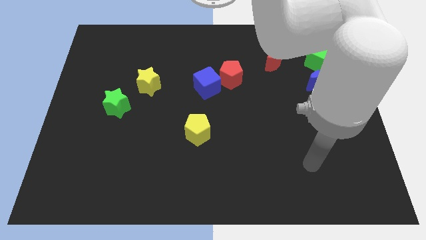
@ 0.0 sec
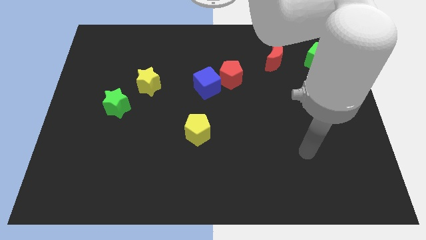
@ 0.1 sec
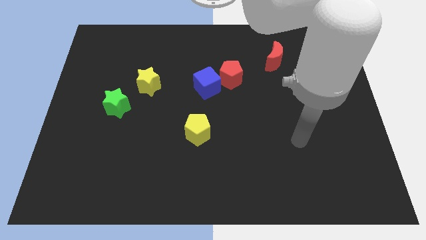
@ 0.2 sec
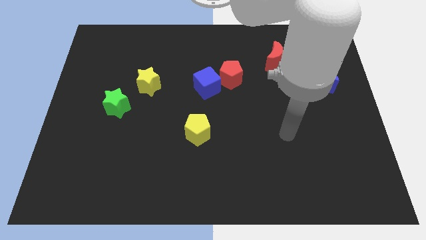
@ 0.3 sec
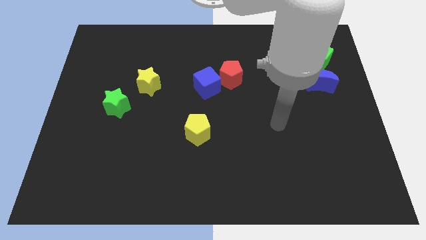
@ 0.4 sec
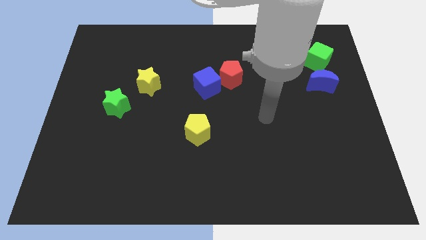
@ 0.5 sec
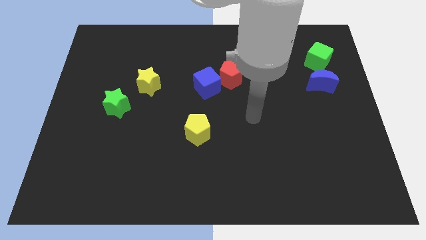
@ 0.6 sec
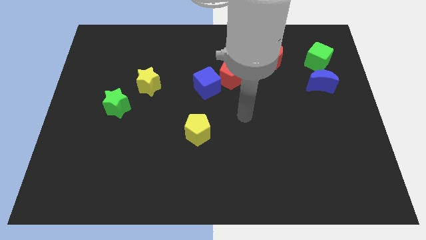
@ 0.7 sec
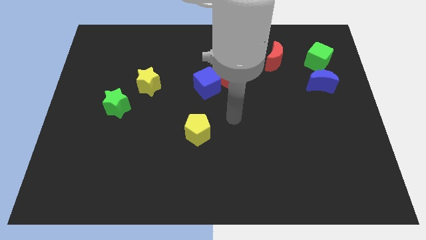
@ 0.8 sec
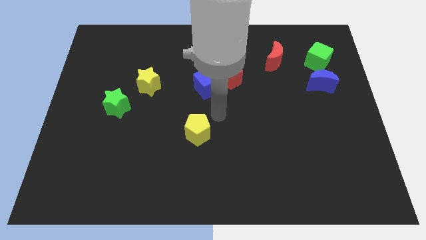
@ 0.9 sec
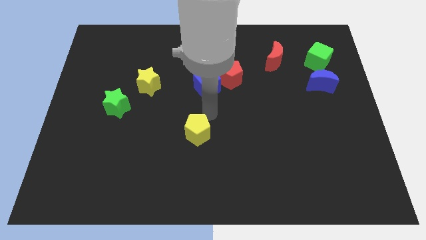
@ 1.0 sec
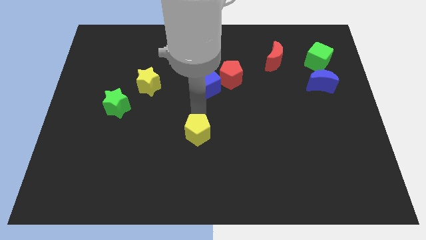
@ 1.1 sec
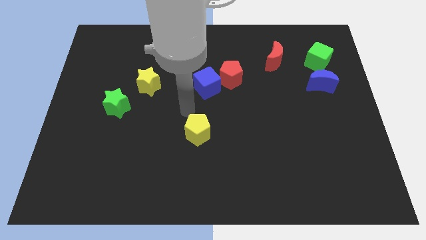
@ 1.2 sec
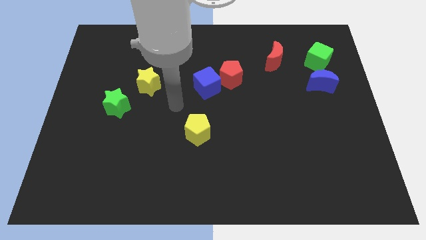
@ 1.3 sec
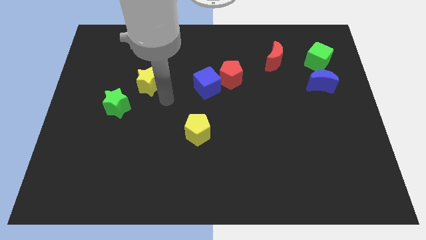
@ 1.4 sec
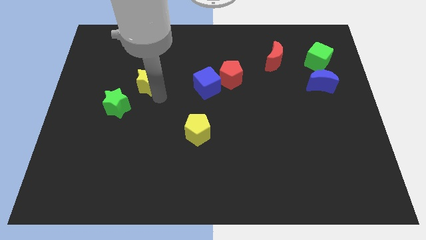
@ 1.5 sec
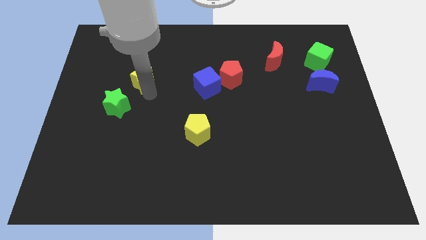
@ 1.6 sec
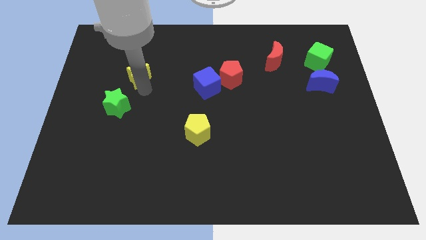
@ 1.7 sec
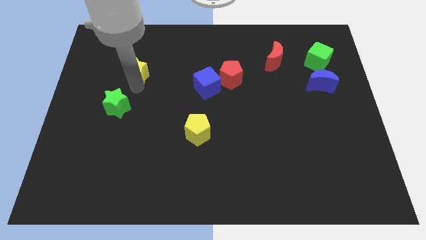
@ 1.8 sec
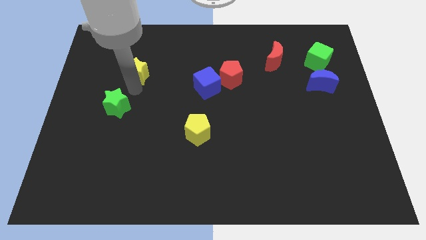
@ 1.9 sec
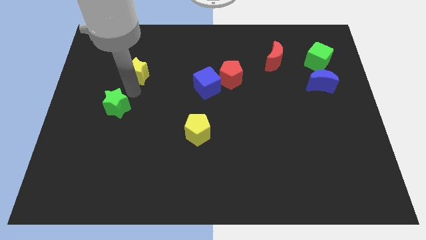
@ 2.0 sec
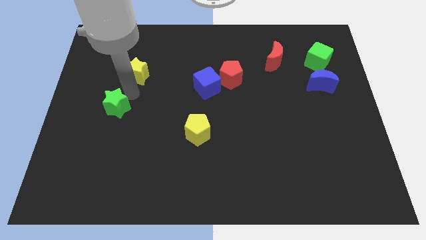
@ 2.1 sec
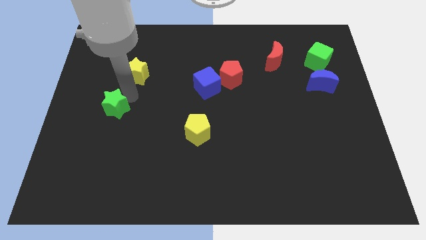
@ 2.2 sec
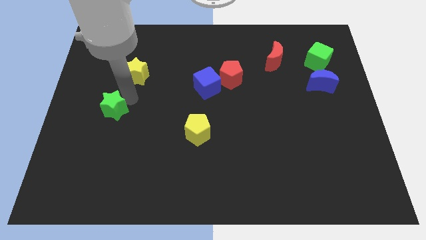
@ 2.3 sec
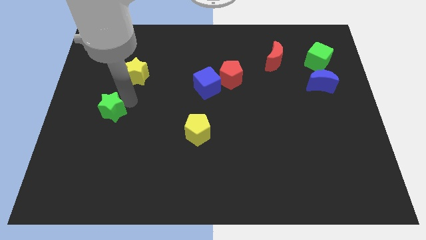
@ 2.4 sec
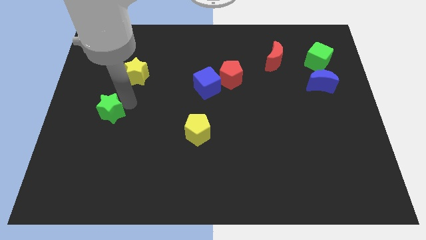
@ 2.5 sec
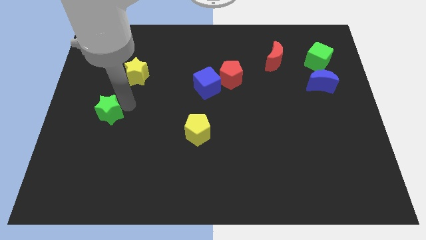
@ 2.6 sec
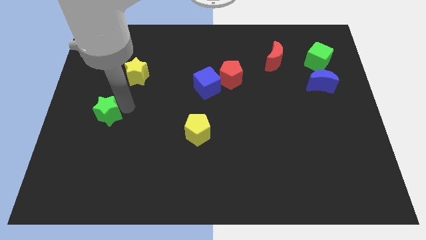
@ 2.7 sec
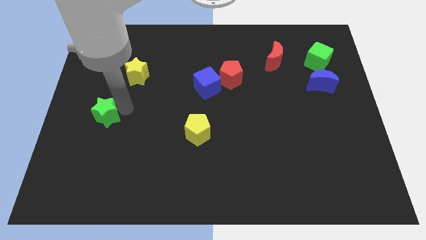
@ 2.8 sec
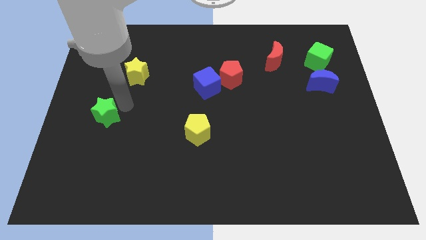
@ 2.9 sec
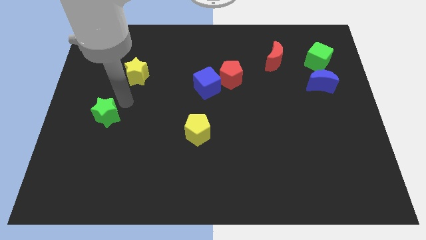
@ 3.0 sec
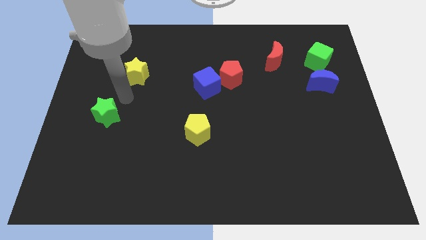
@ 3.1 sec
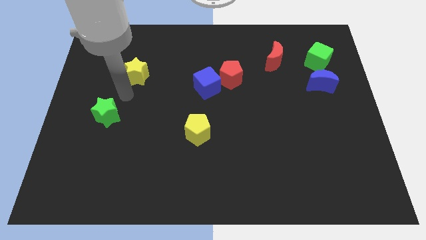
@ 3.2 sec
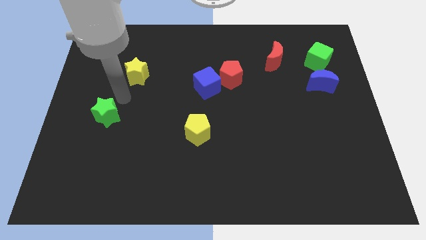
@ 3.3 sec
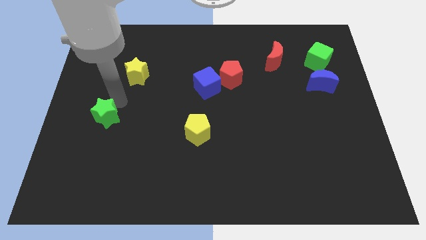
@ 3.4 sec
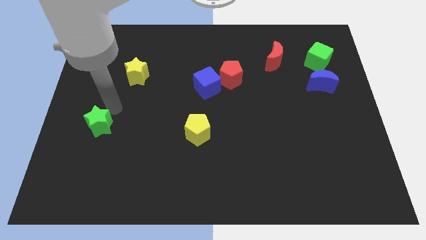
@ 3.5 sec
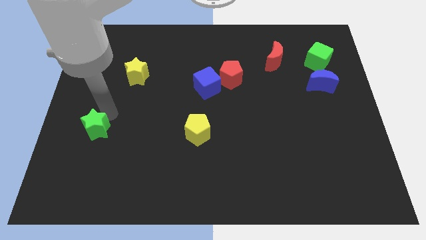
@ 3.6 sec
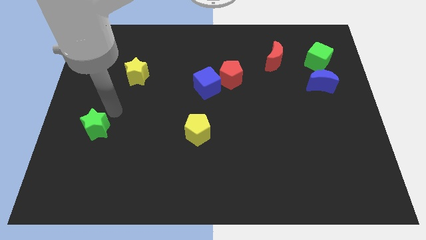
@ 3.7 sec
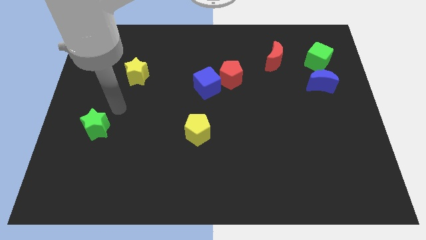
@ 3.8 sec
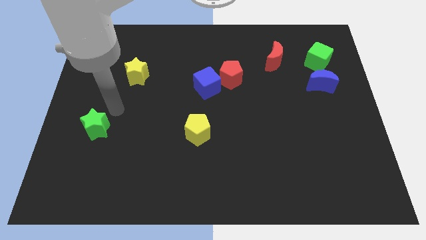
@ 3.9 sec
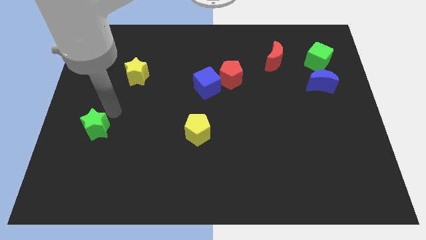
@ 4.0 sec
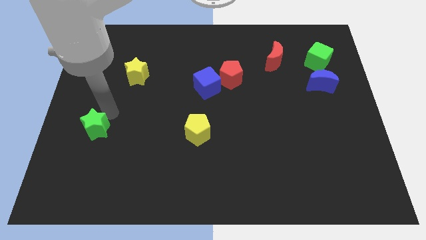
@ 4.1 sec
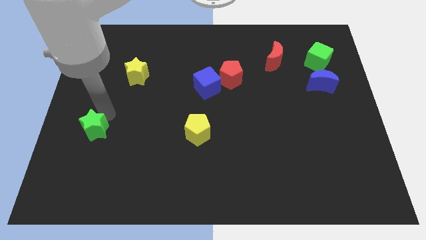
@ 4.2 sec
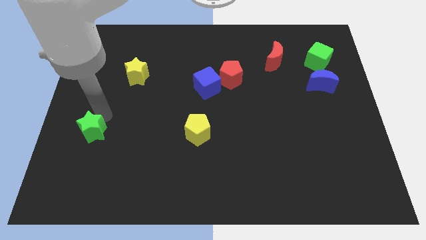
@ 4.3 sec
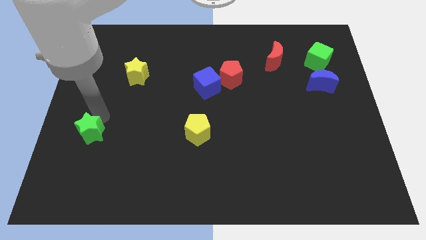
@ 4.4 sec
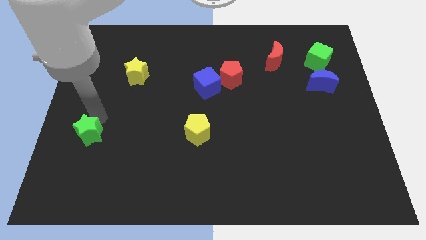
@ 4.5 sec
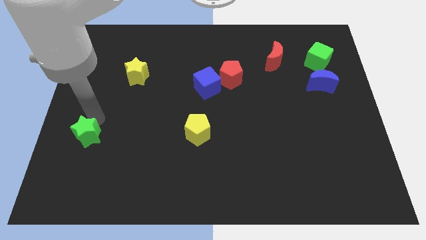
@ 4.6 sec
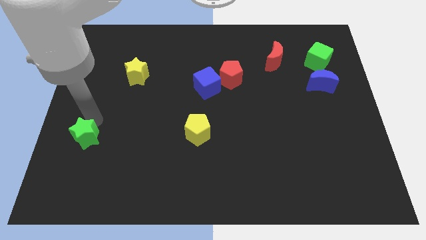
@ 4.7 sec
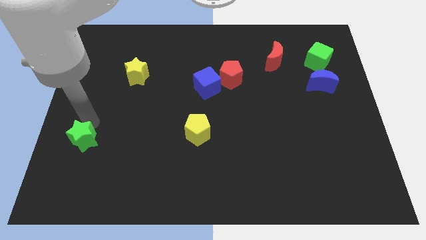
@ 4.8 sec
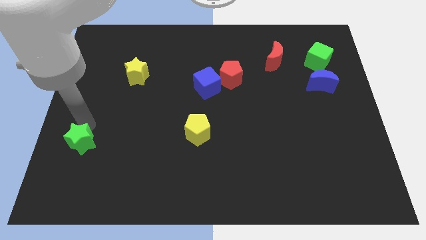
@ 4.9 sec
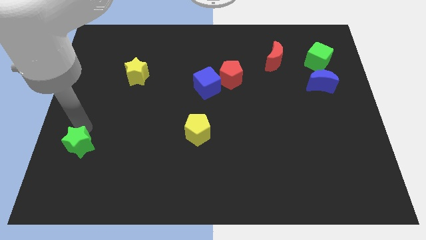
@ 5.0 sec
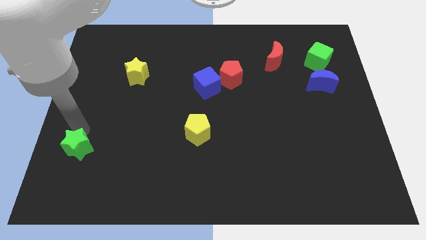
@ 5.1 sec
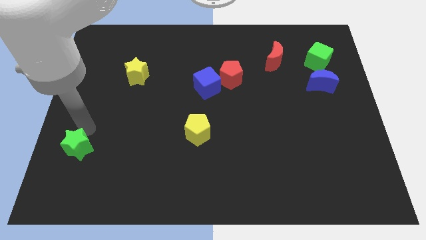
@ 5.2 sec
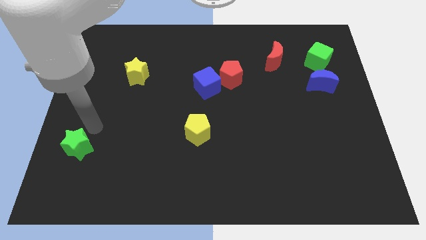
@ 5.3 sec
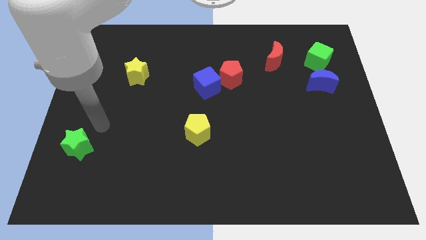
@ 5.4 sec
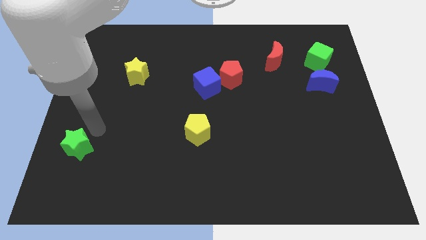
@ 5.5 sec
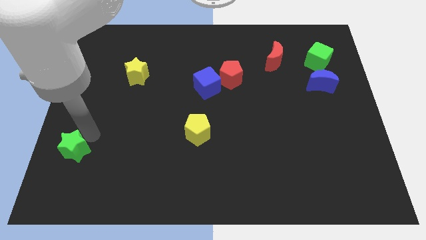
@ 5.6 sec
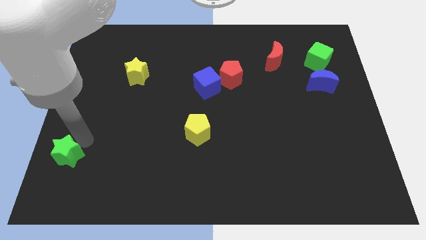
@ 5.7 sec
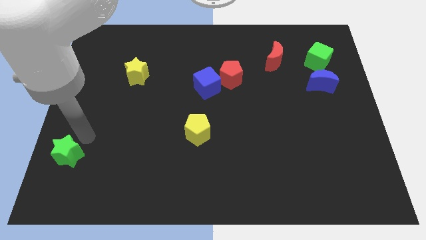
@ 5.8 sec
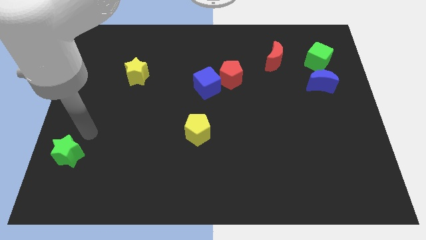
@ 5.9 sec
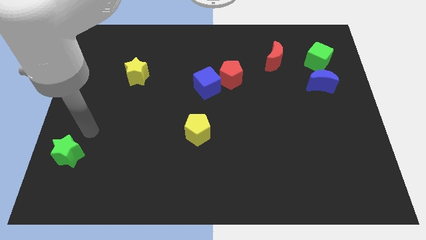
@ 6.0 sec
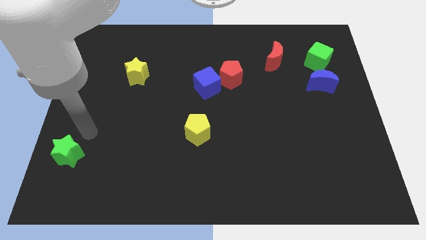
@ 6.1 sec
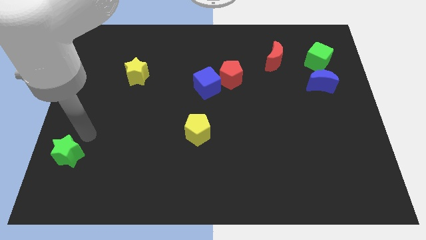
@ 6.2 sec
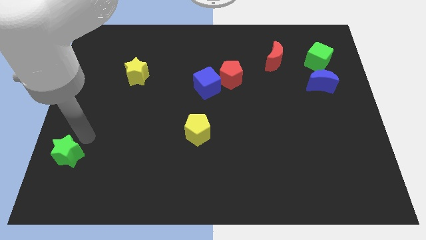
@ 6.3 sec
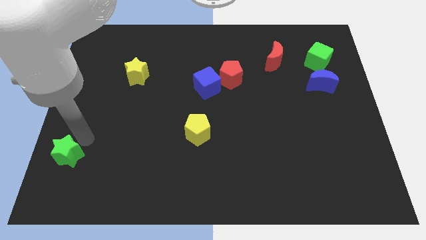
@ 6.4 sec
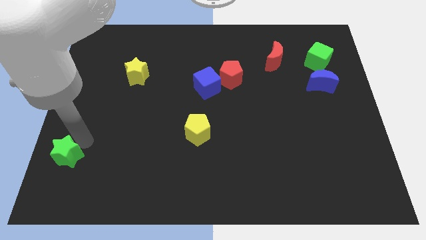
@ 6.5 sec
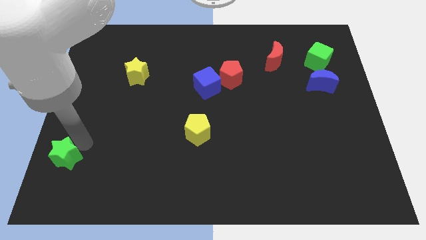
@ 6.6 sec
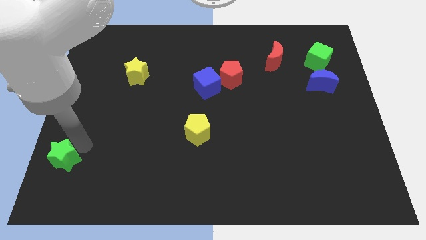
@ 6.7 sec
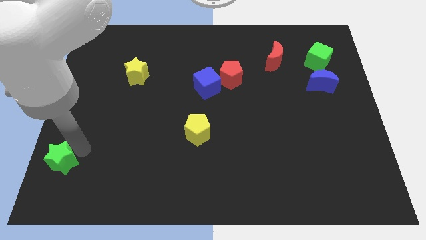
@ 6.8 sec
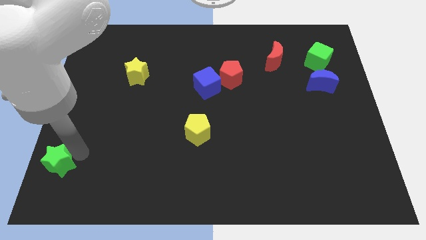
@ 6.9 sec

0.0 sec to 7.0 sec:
slide the green star to the bottom left corner
